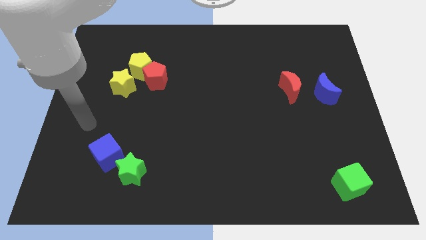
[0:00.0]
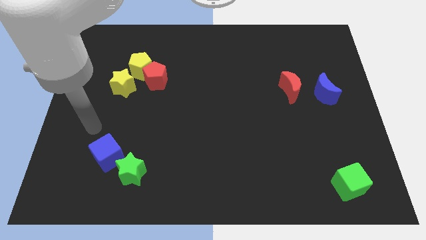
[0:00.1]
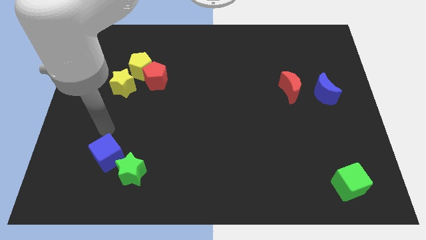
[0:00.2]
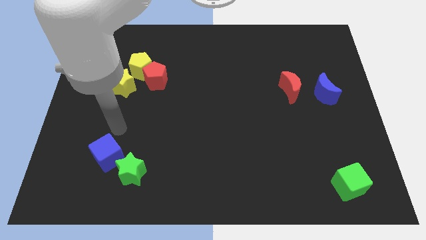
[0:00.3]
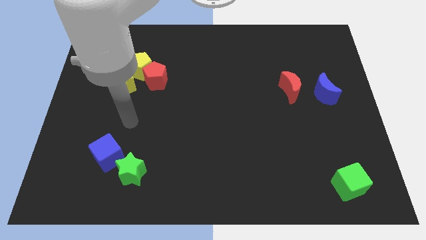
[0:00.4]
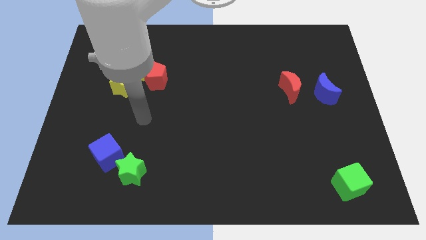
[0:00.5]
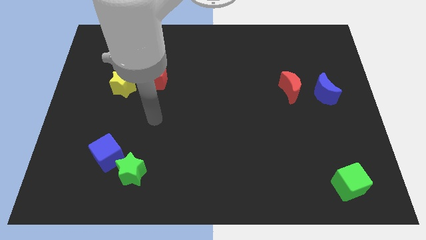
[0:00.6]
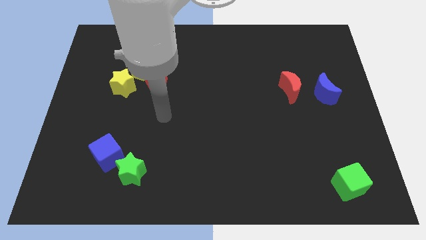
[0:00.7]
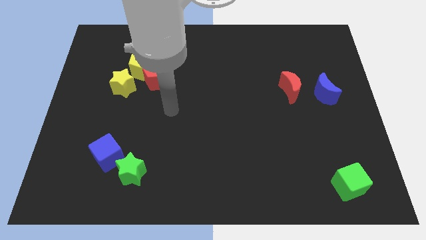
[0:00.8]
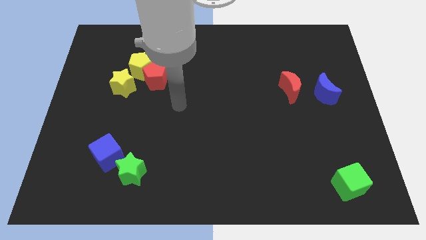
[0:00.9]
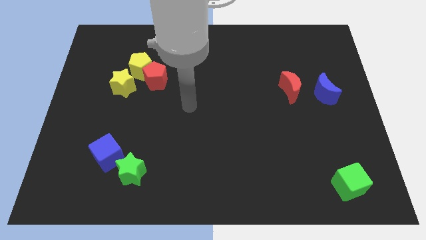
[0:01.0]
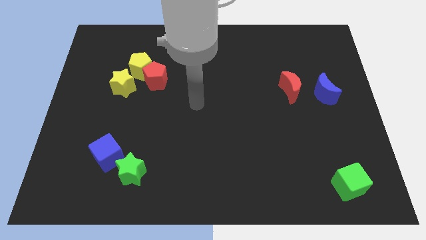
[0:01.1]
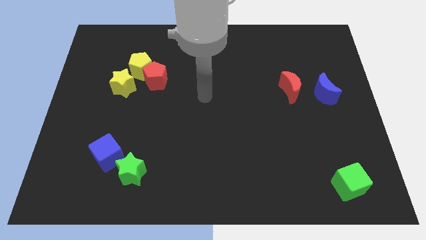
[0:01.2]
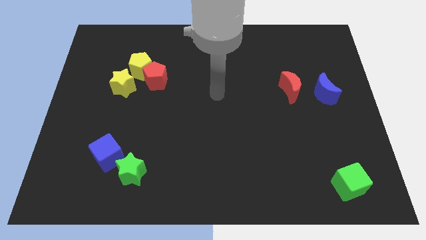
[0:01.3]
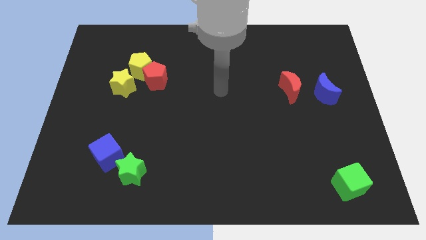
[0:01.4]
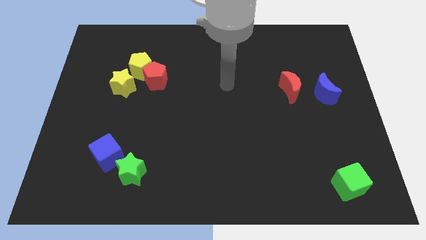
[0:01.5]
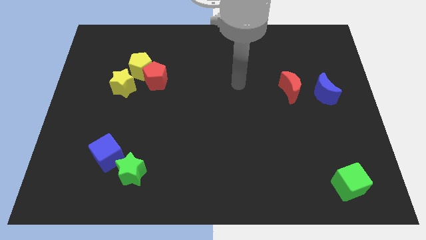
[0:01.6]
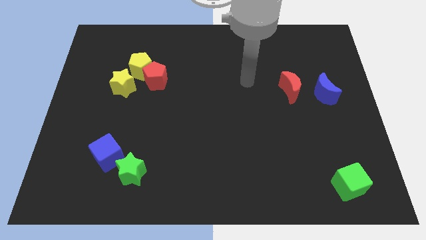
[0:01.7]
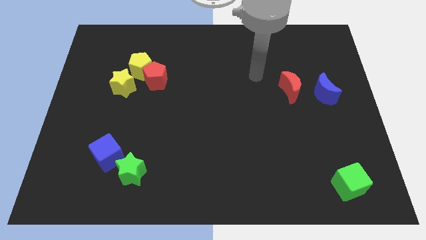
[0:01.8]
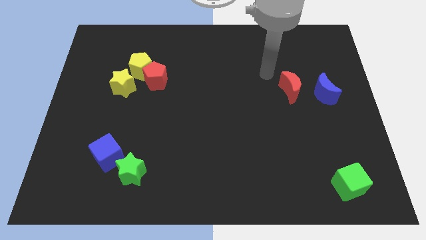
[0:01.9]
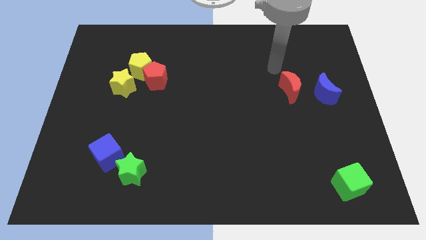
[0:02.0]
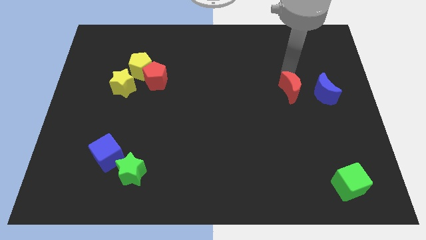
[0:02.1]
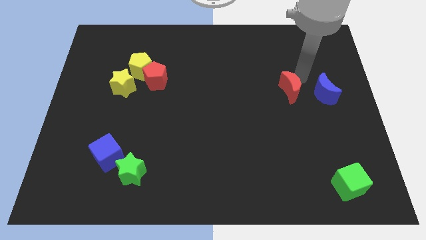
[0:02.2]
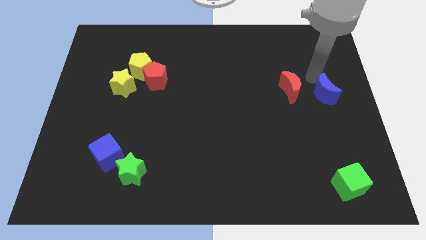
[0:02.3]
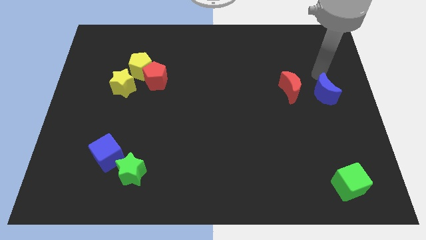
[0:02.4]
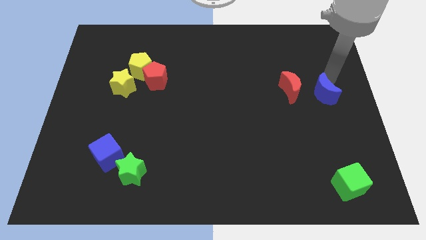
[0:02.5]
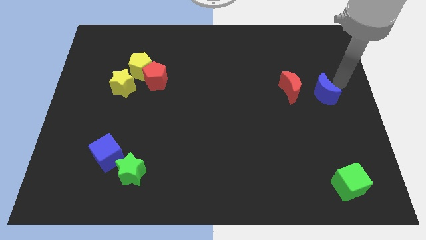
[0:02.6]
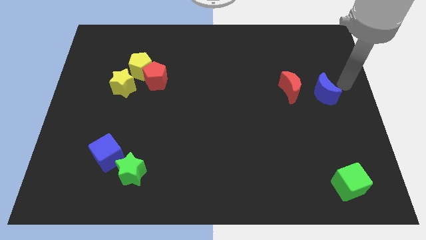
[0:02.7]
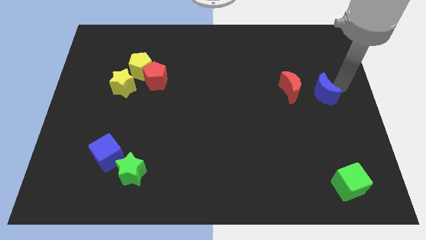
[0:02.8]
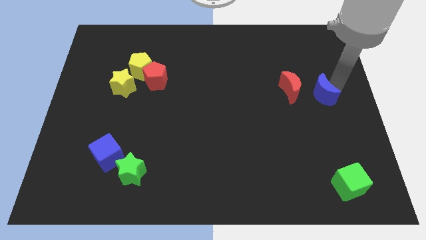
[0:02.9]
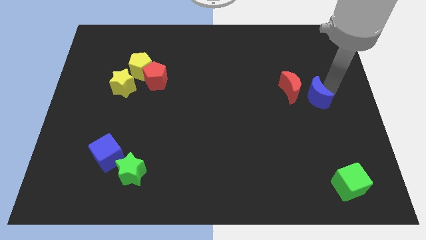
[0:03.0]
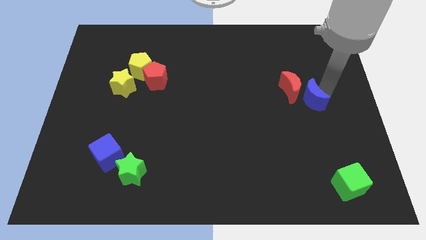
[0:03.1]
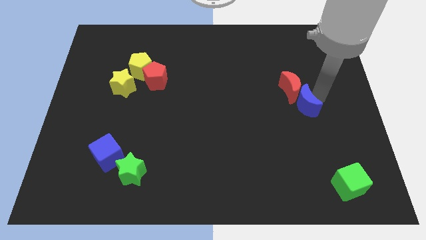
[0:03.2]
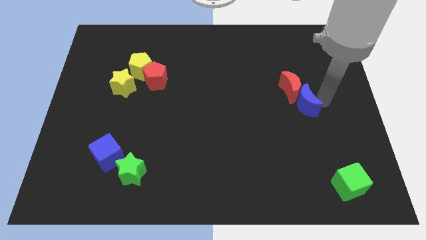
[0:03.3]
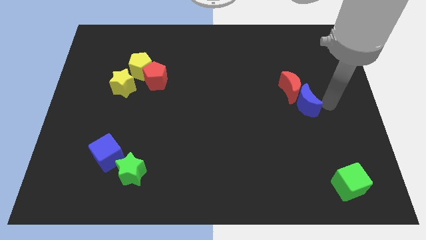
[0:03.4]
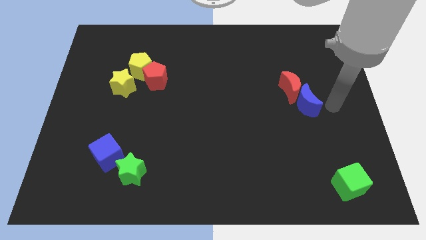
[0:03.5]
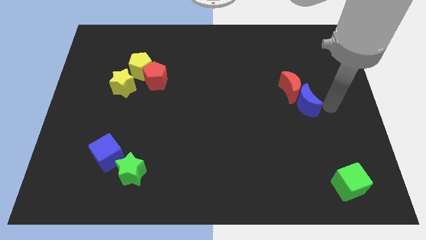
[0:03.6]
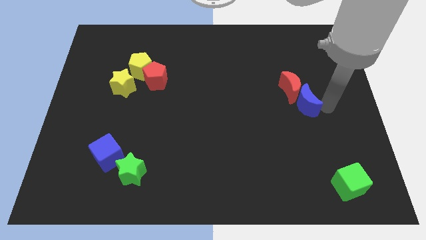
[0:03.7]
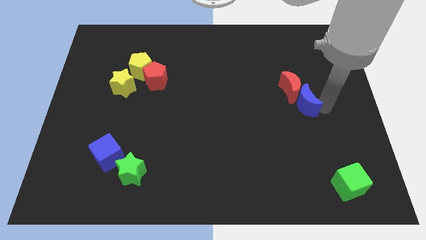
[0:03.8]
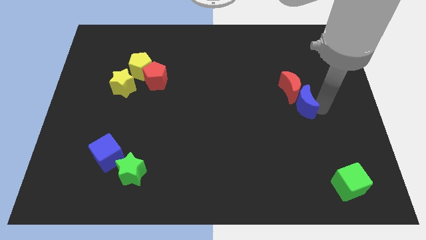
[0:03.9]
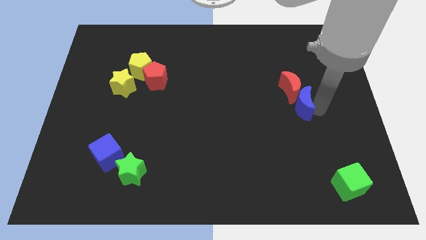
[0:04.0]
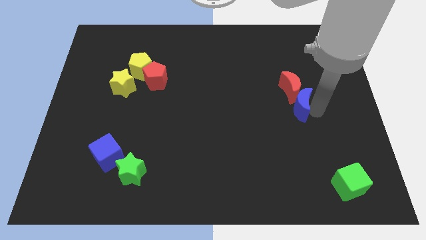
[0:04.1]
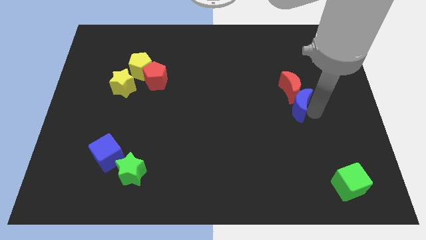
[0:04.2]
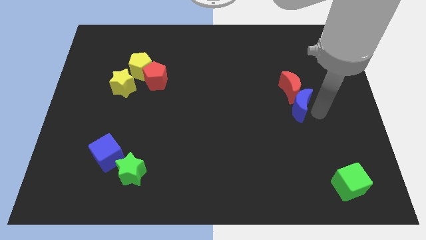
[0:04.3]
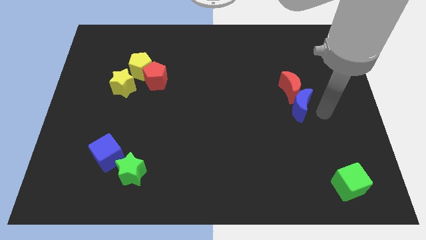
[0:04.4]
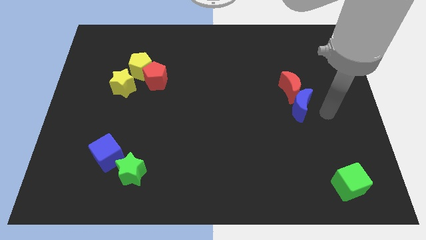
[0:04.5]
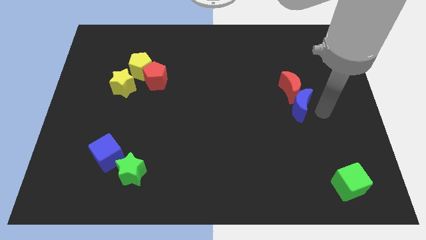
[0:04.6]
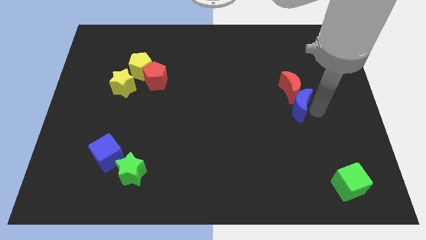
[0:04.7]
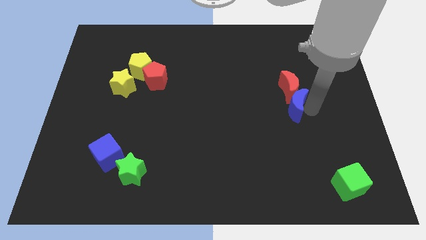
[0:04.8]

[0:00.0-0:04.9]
move the blue moon slightly to the left

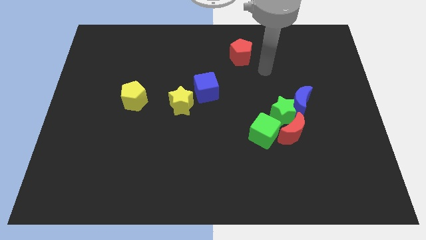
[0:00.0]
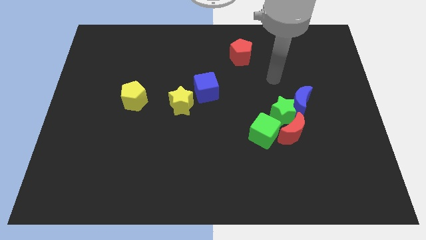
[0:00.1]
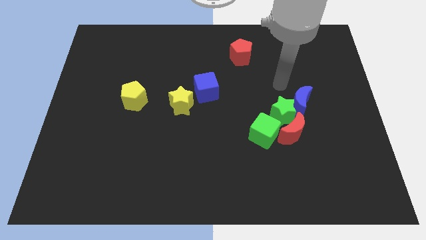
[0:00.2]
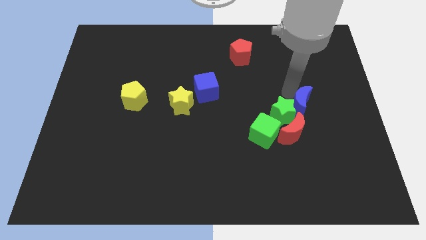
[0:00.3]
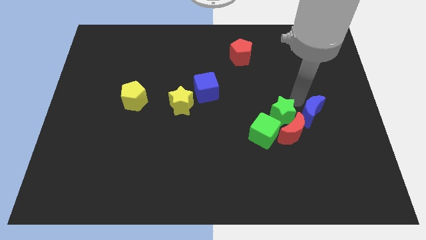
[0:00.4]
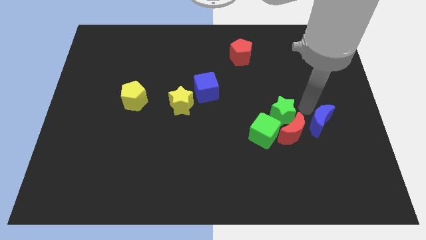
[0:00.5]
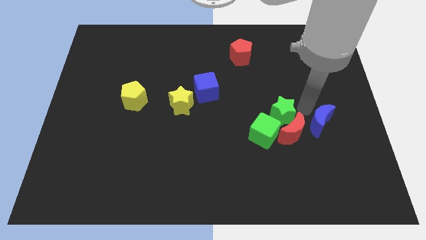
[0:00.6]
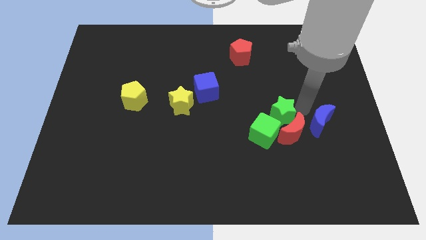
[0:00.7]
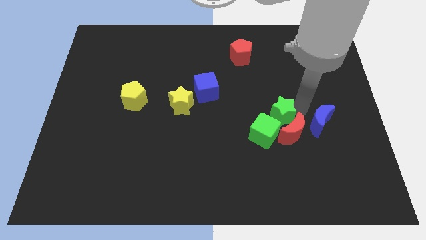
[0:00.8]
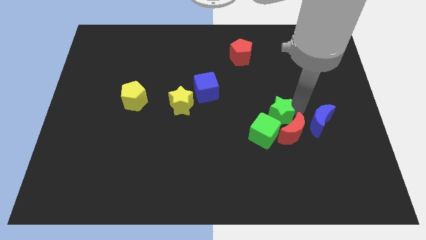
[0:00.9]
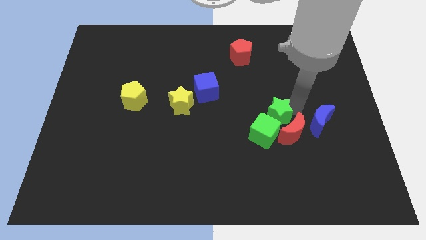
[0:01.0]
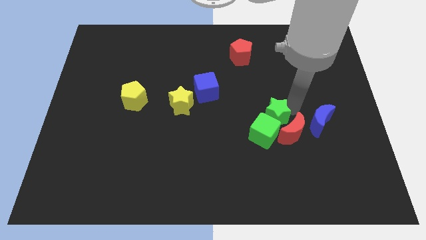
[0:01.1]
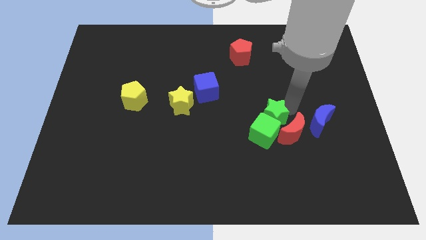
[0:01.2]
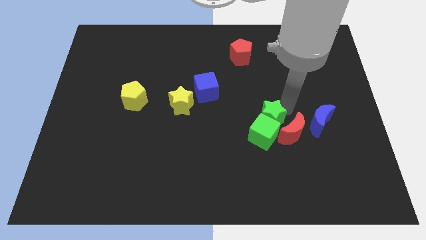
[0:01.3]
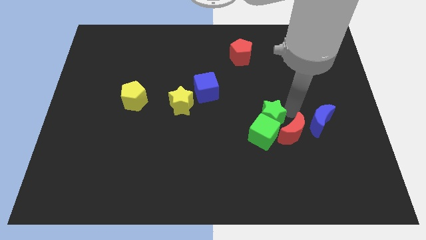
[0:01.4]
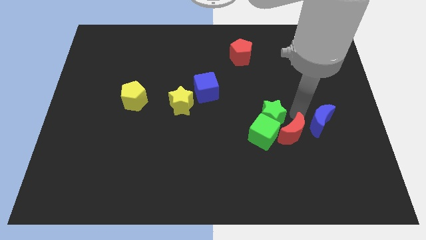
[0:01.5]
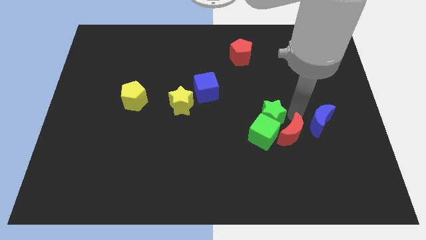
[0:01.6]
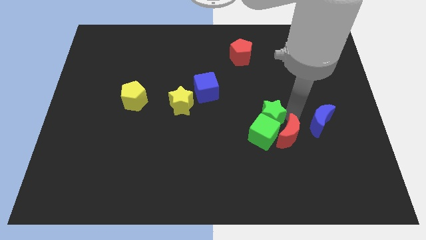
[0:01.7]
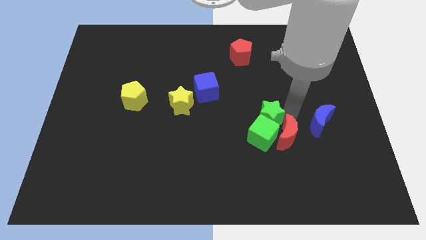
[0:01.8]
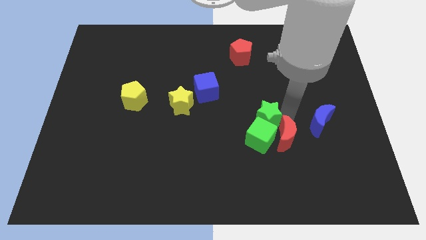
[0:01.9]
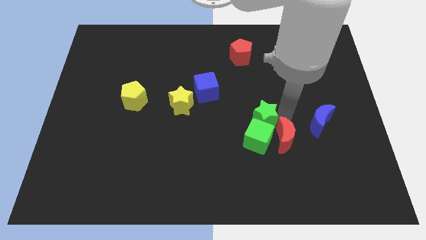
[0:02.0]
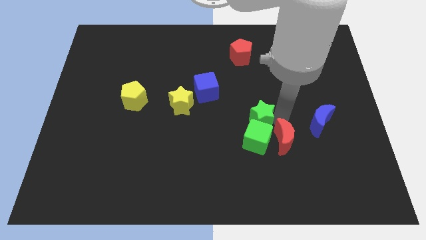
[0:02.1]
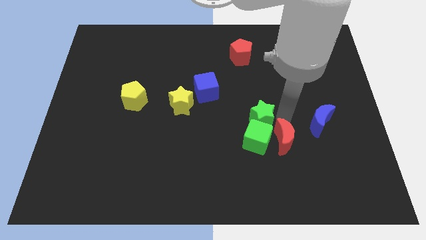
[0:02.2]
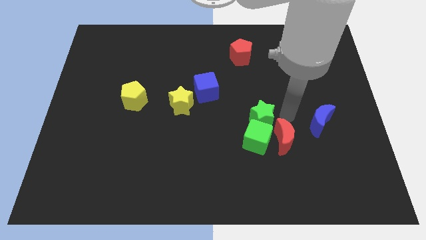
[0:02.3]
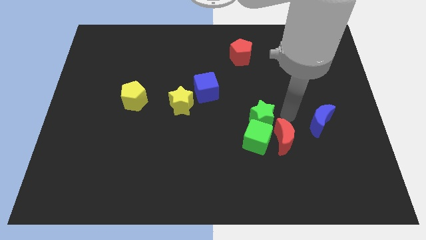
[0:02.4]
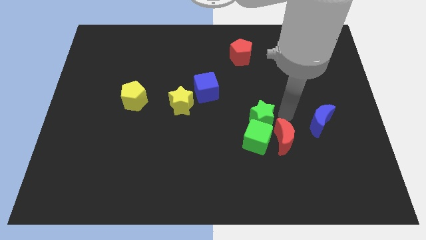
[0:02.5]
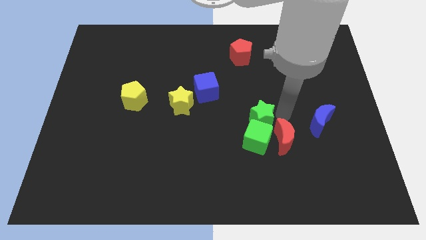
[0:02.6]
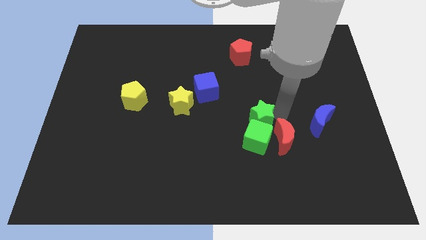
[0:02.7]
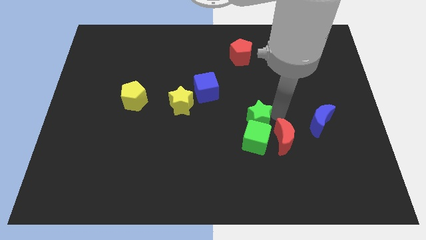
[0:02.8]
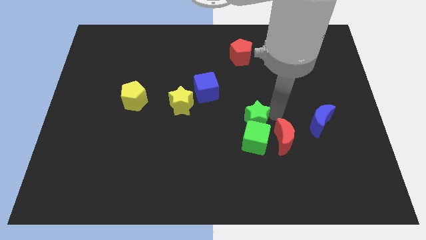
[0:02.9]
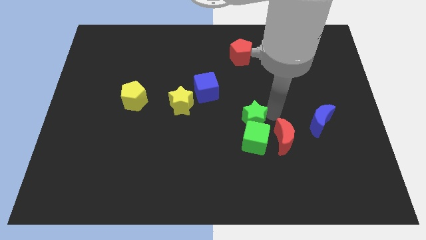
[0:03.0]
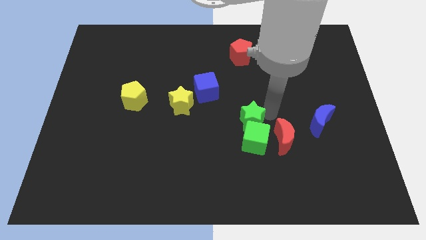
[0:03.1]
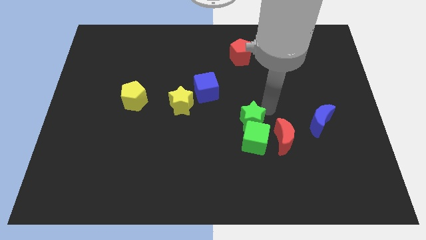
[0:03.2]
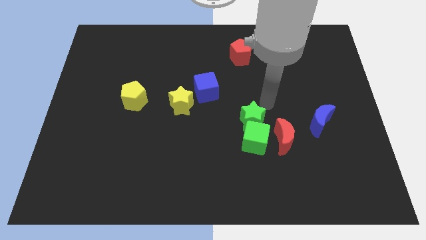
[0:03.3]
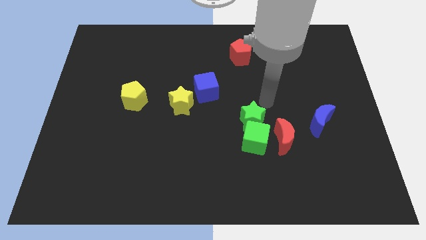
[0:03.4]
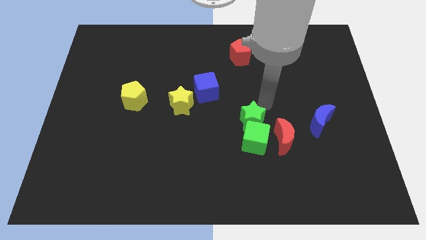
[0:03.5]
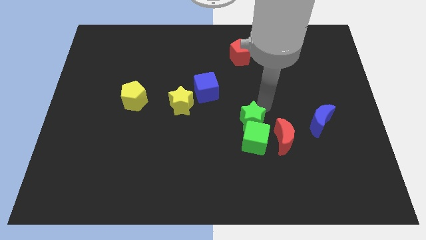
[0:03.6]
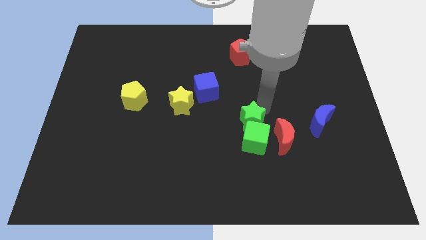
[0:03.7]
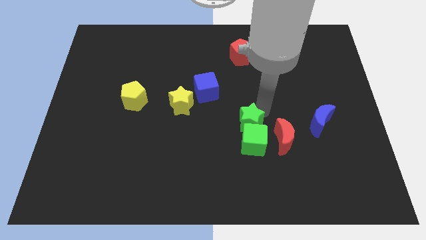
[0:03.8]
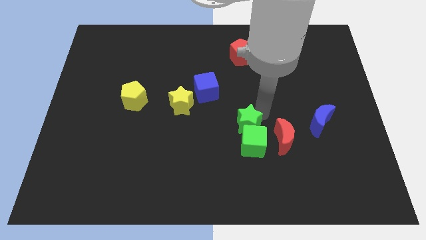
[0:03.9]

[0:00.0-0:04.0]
slightly move the green star down and left
